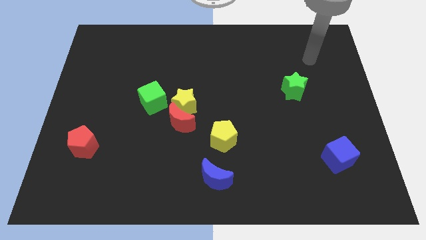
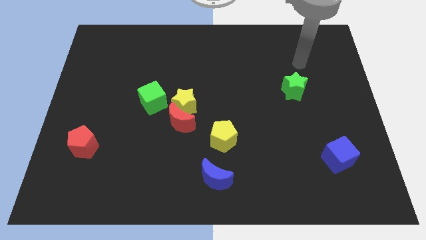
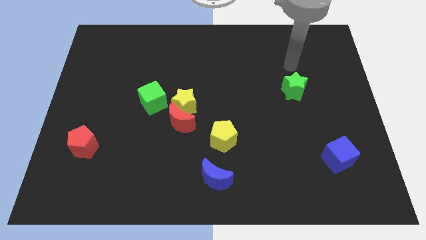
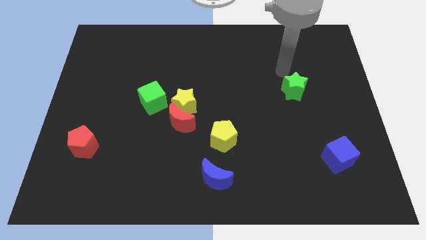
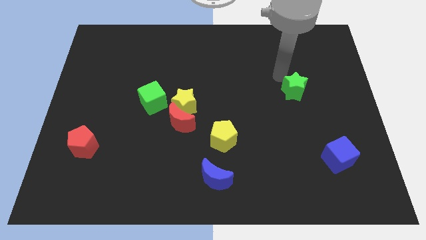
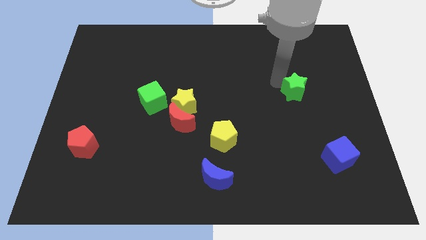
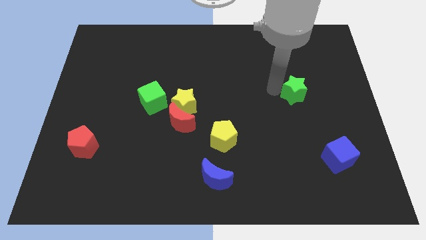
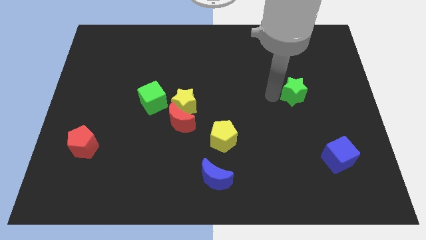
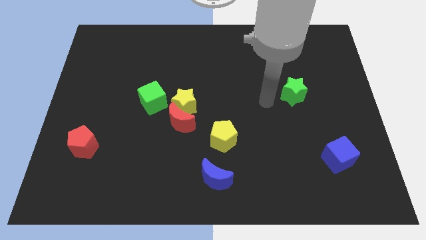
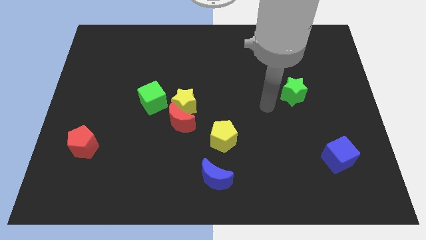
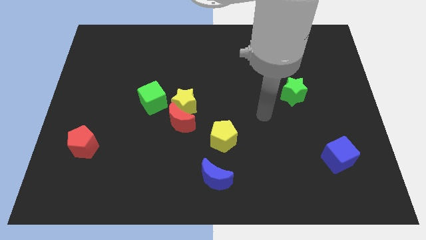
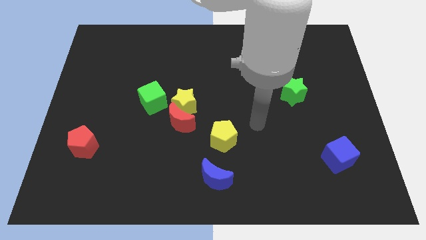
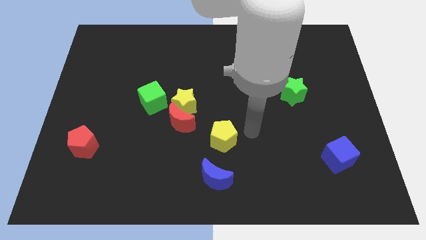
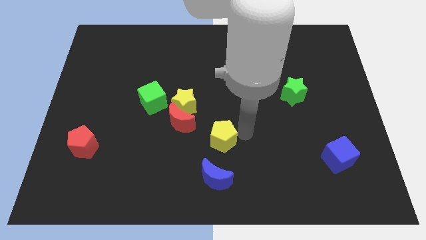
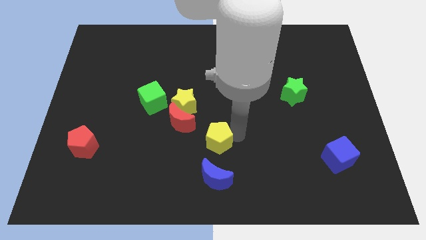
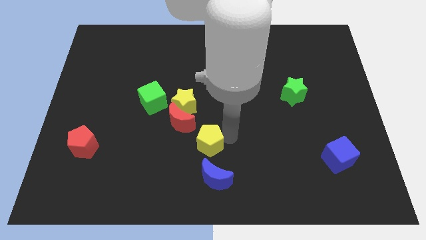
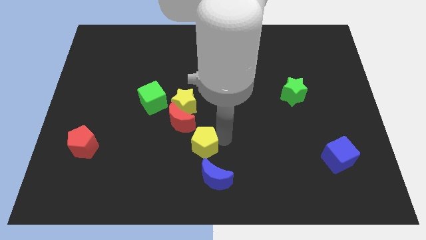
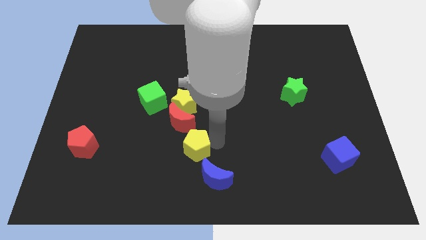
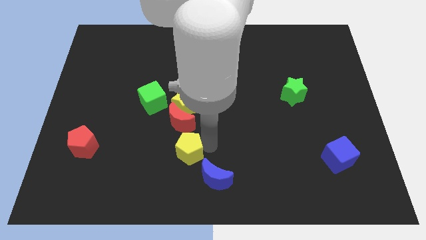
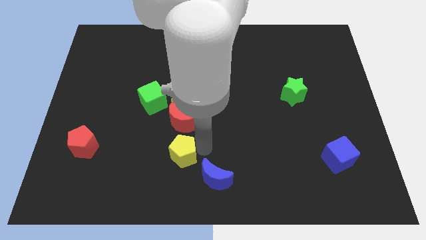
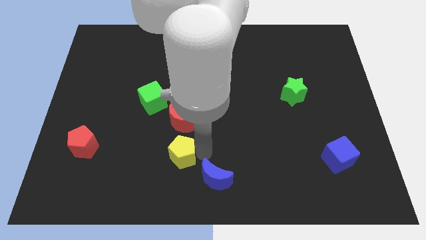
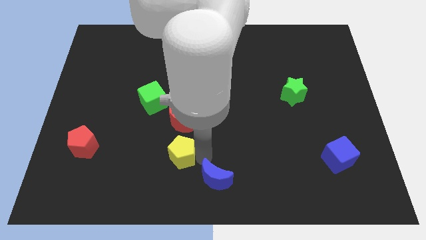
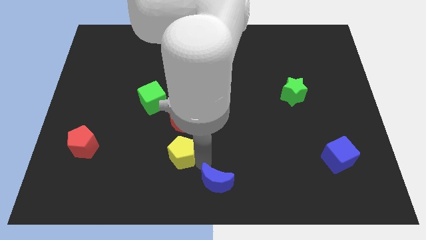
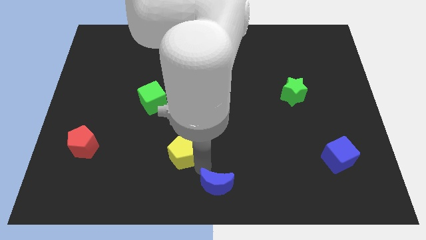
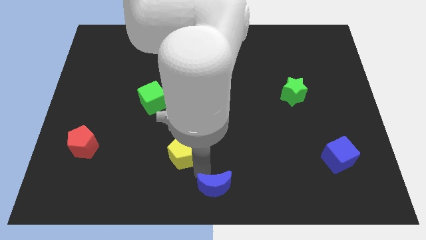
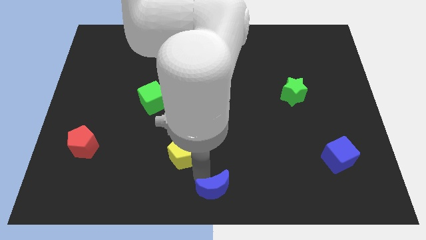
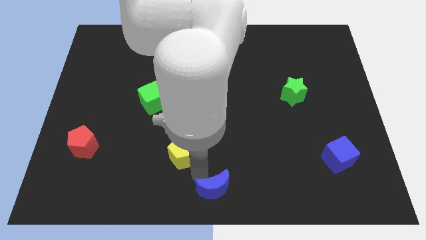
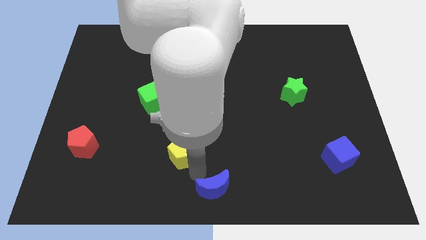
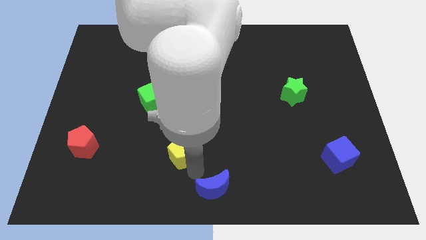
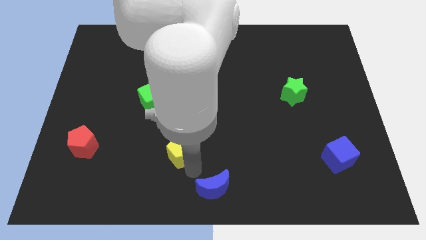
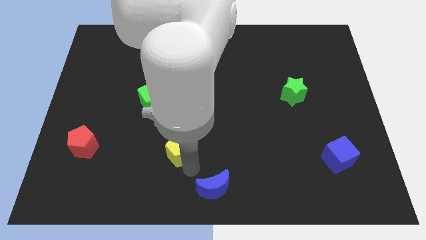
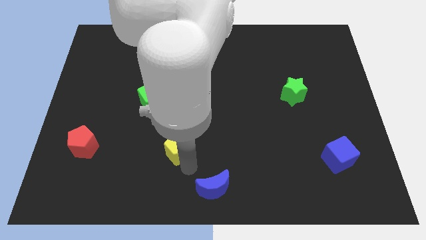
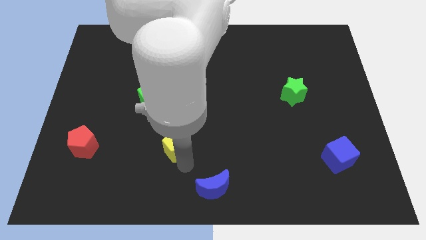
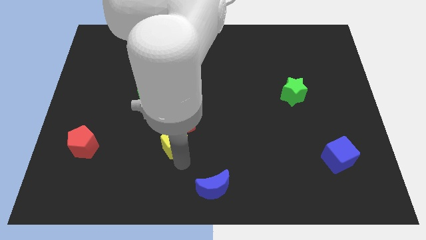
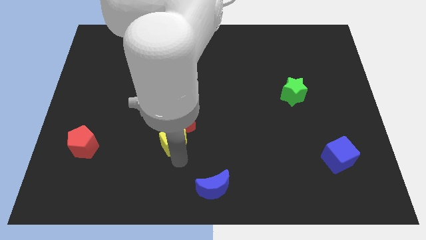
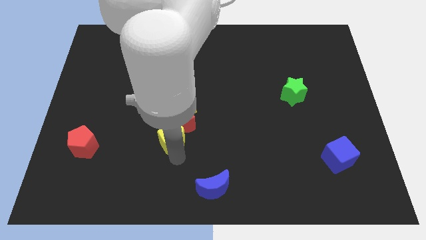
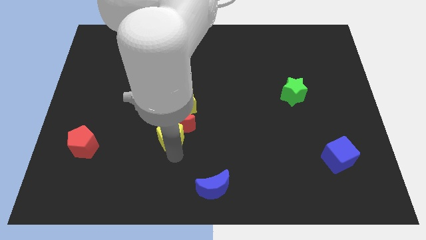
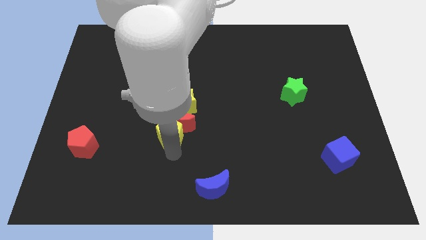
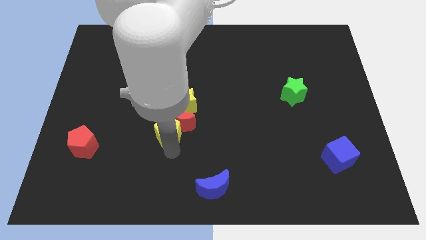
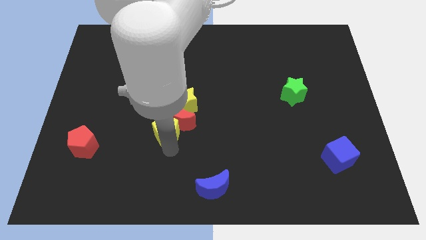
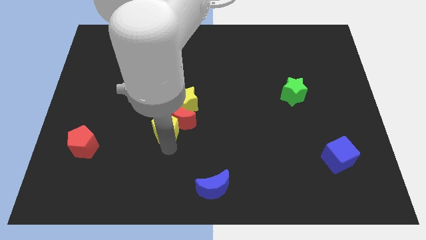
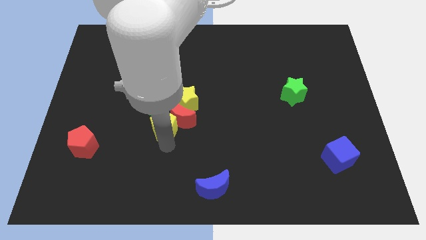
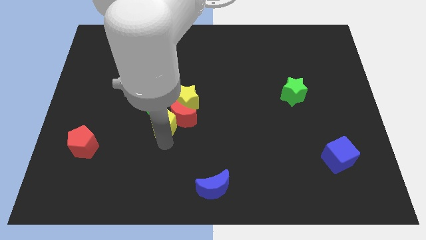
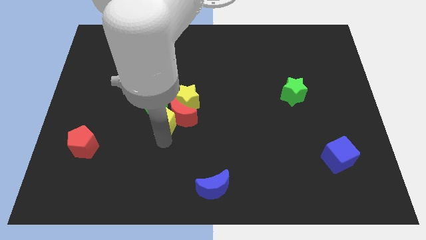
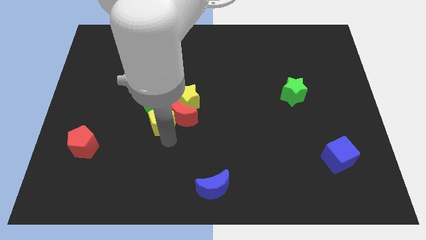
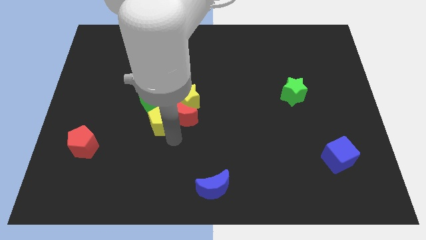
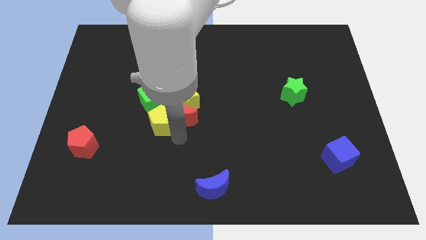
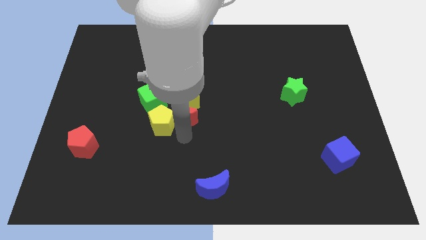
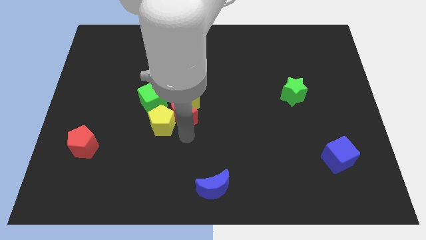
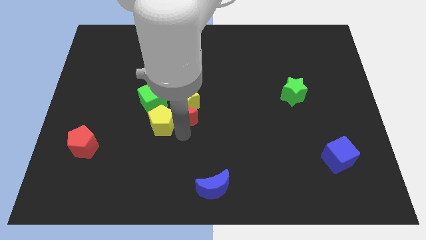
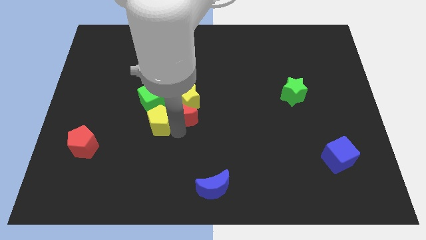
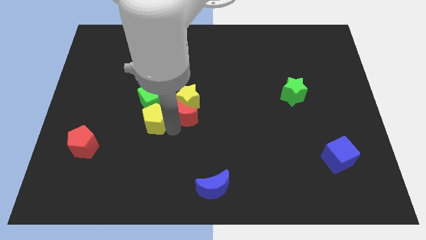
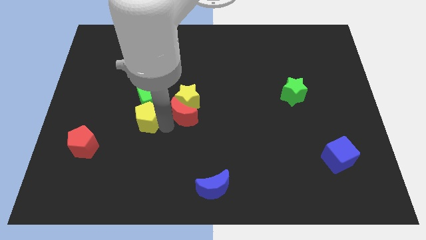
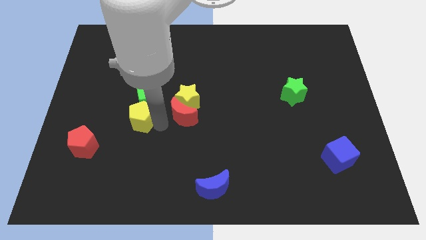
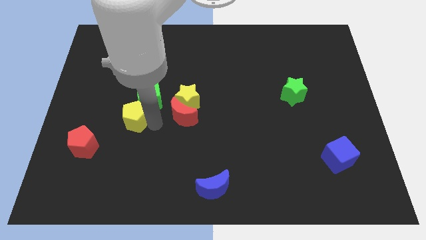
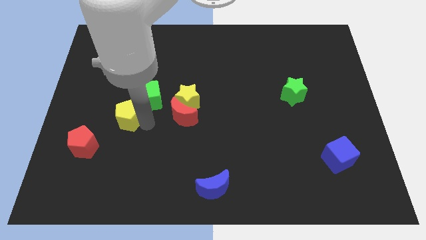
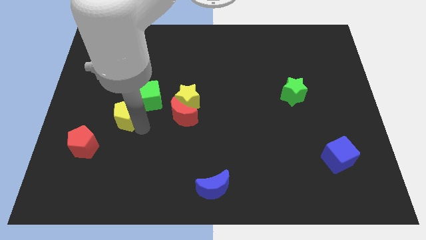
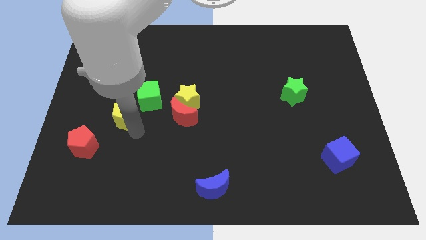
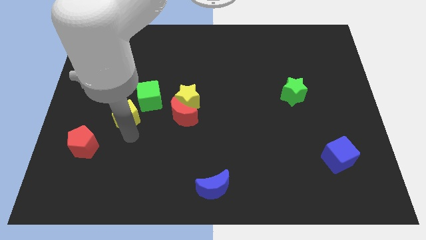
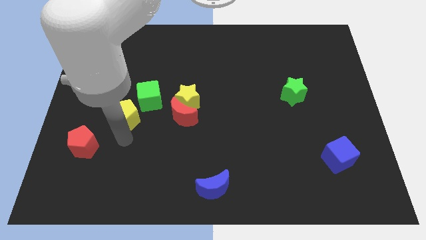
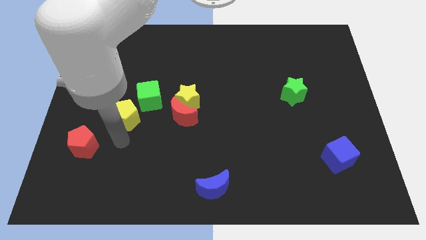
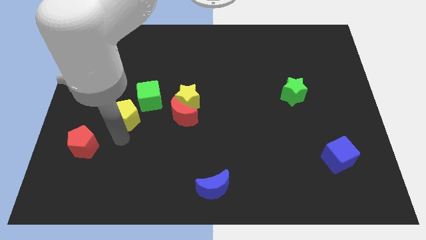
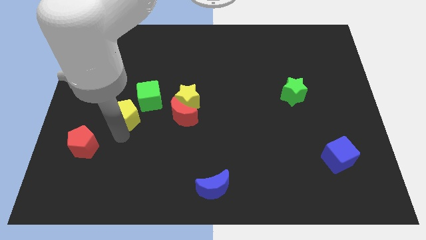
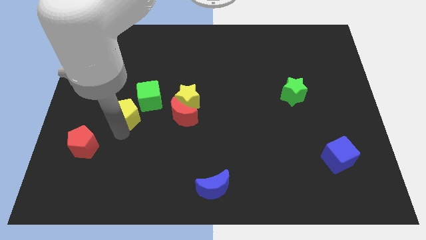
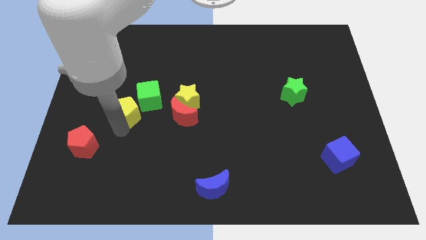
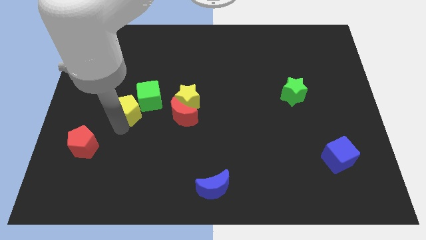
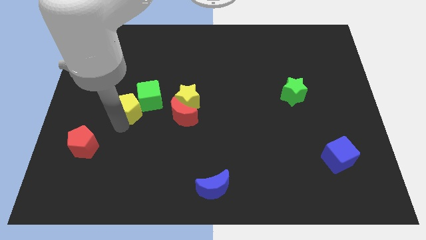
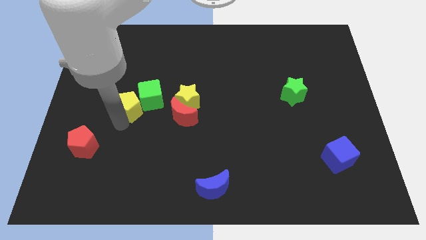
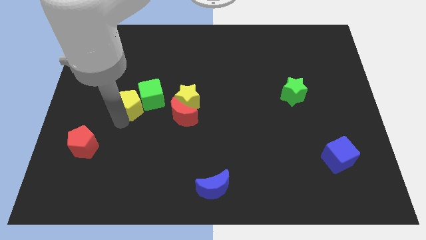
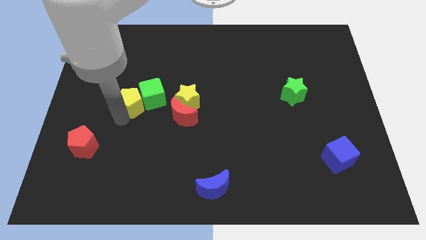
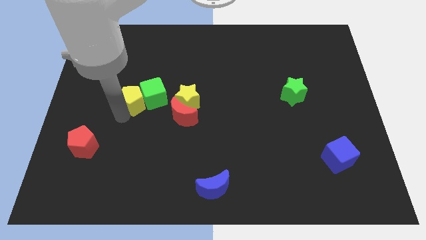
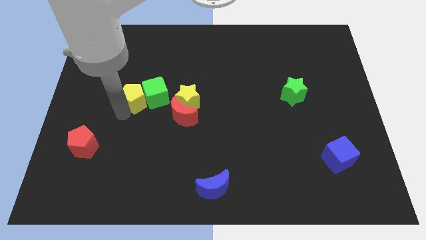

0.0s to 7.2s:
slide the yellow pentagon upwards and to the left diagonally

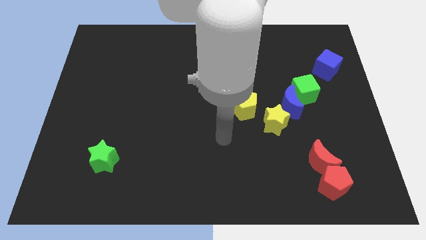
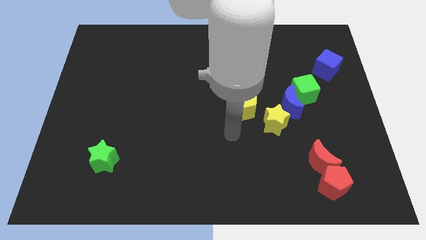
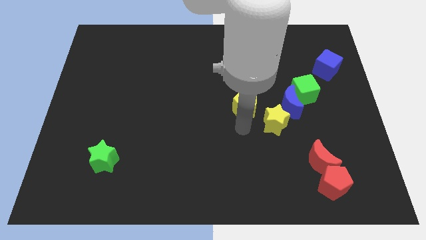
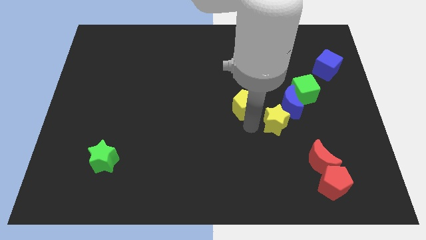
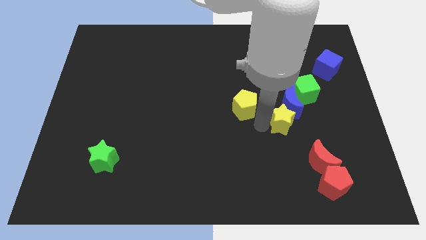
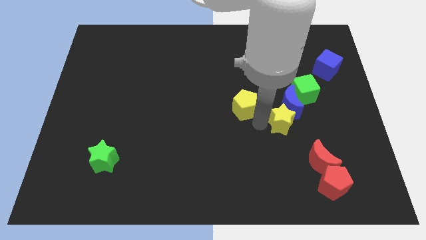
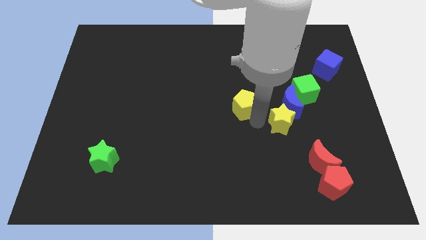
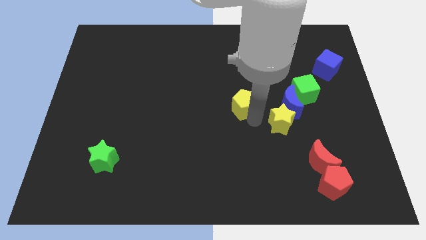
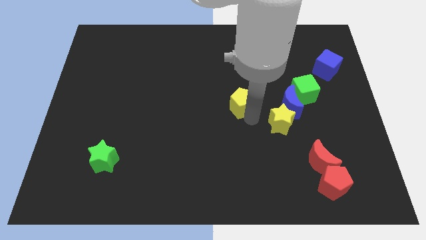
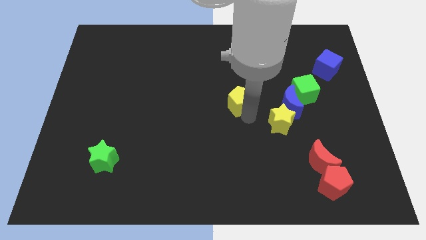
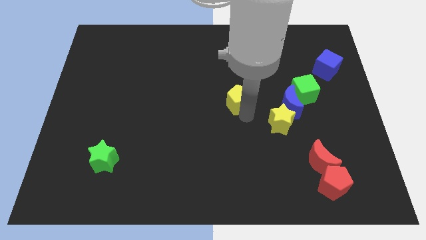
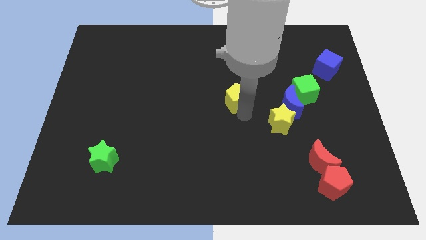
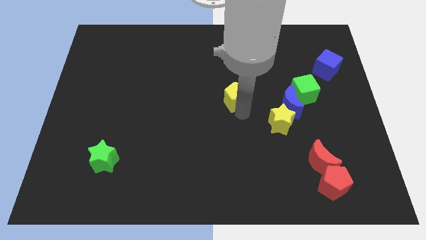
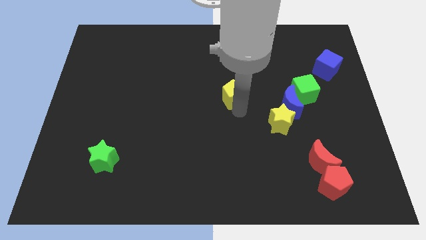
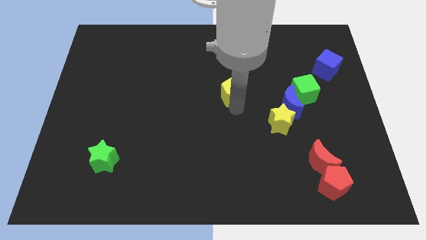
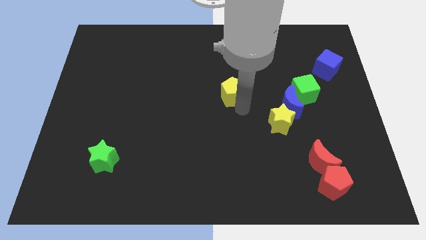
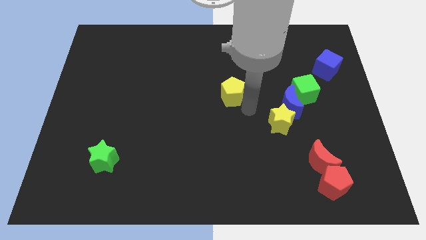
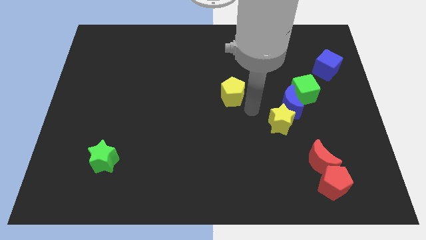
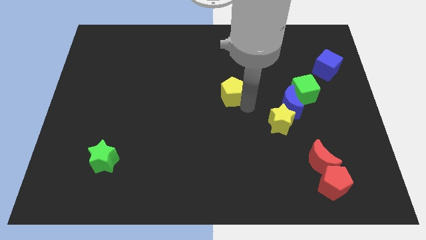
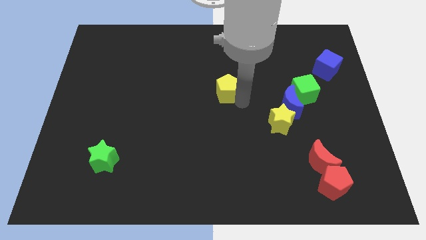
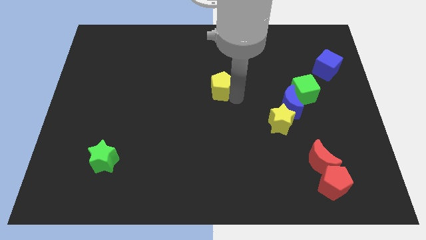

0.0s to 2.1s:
slide the yellow pentagon up and left slightly
